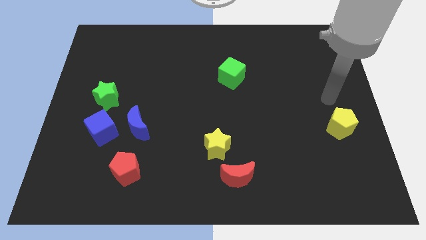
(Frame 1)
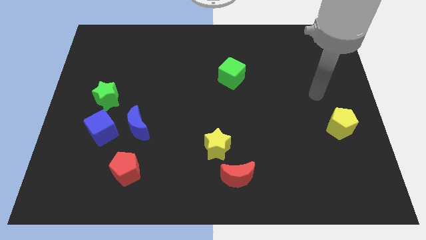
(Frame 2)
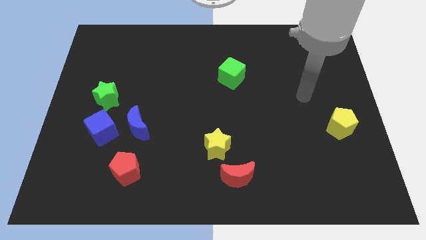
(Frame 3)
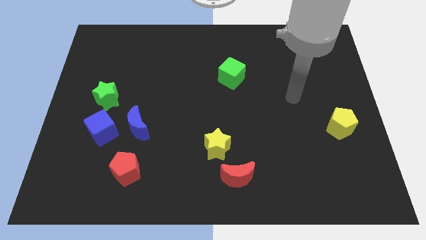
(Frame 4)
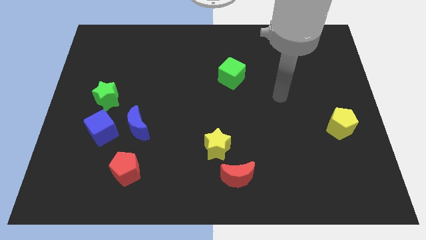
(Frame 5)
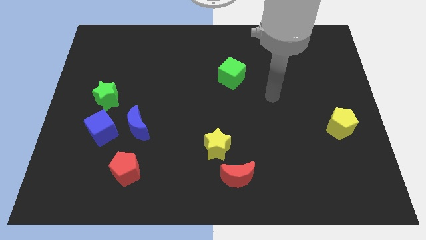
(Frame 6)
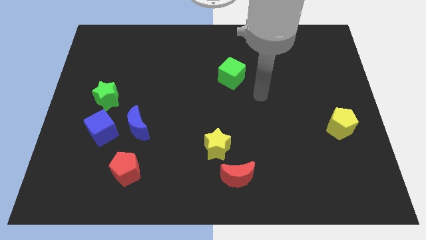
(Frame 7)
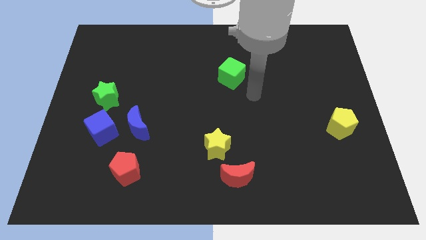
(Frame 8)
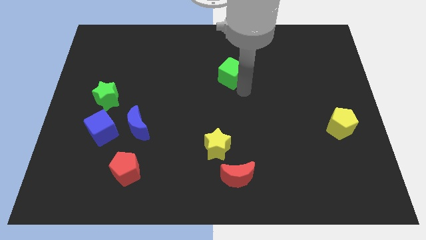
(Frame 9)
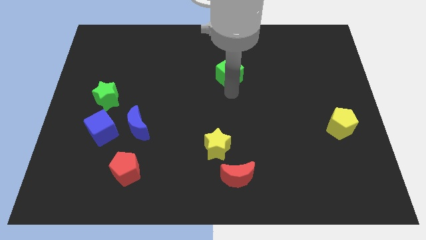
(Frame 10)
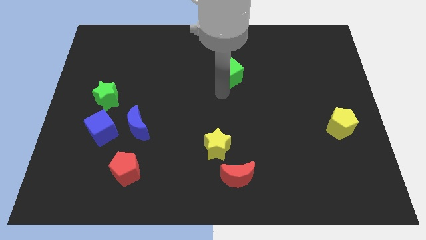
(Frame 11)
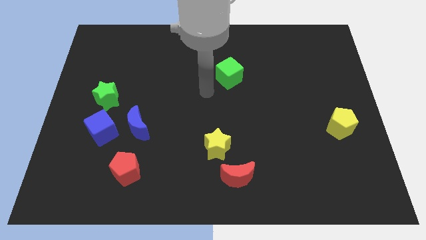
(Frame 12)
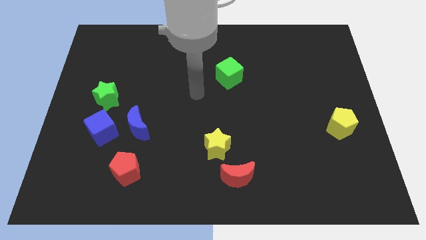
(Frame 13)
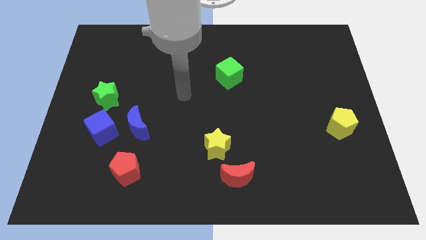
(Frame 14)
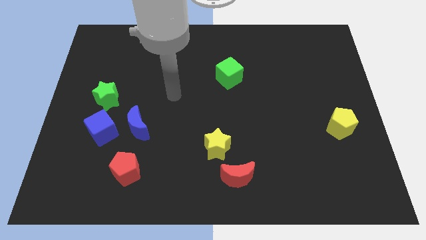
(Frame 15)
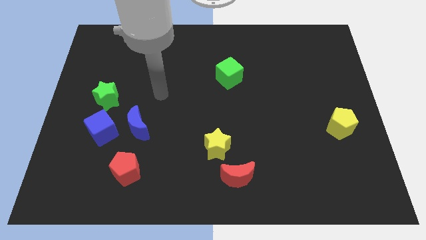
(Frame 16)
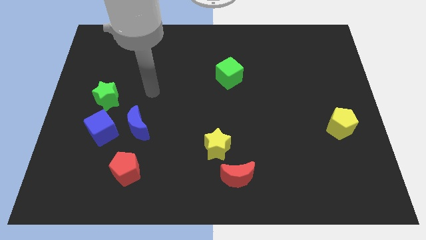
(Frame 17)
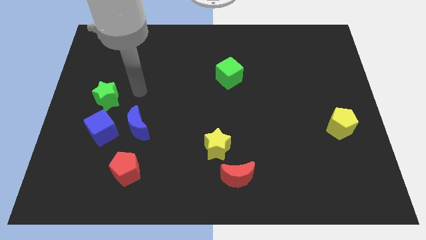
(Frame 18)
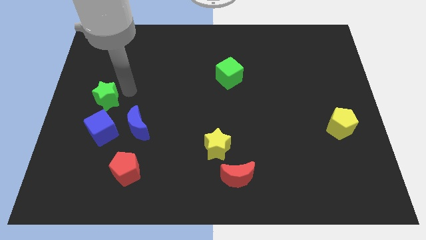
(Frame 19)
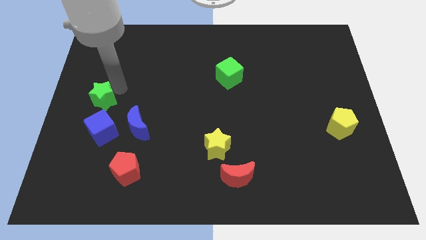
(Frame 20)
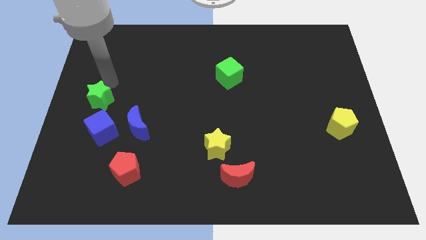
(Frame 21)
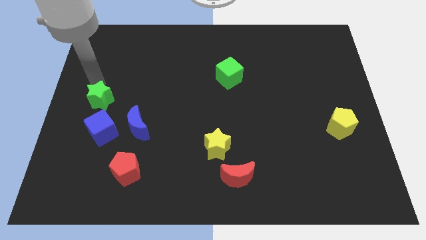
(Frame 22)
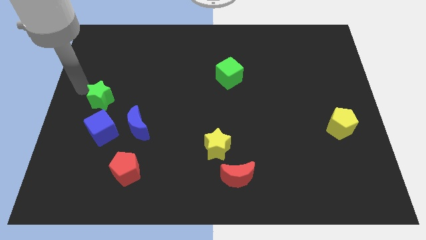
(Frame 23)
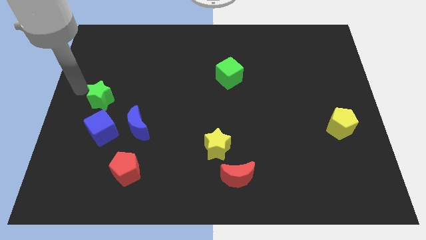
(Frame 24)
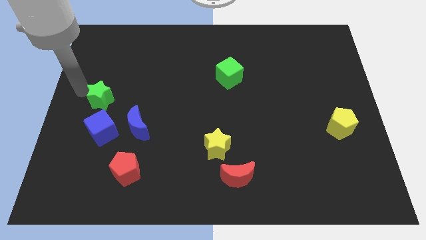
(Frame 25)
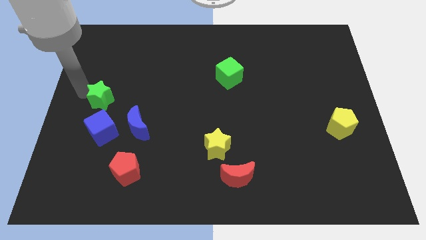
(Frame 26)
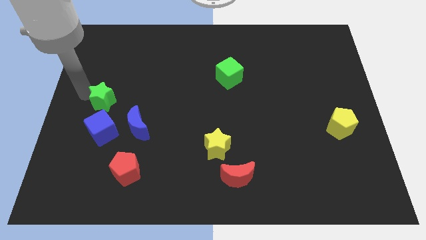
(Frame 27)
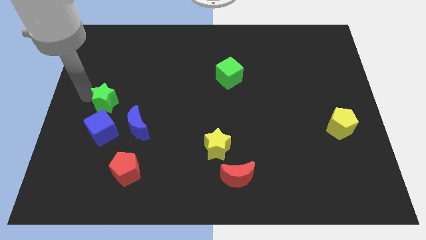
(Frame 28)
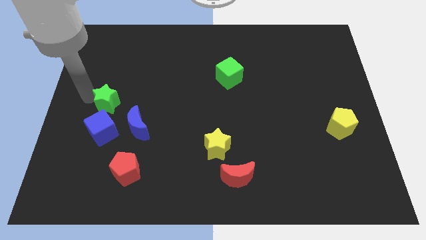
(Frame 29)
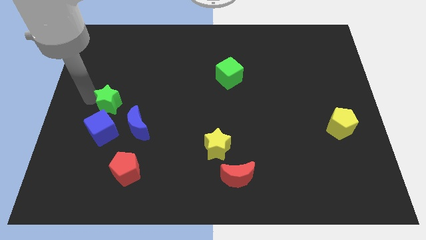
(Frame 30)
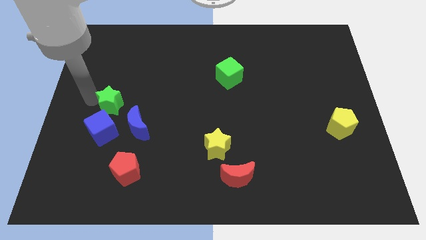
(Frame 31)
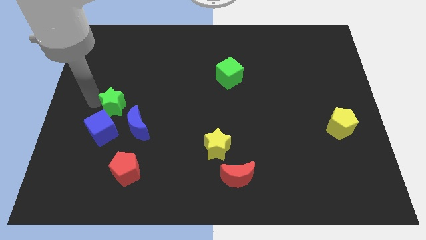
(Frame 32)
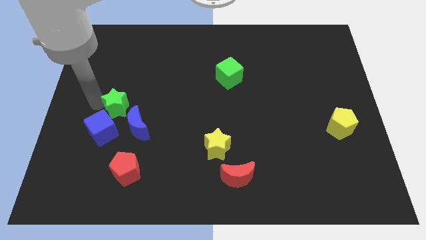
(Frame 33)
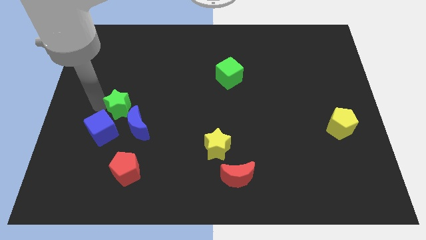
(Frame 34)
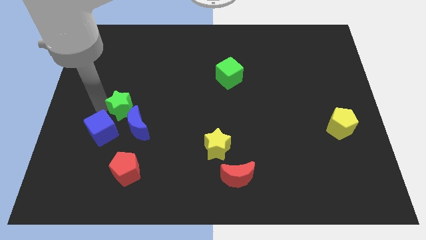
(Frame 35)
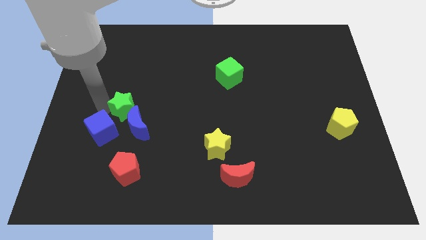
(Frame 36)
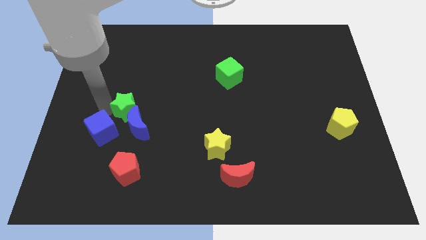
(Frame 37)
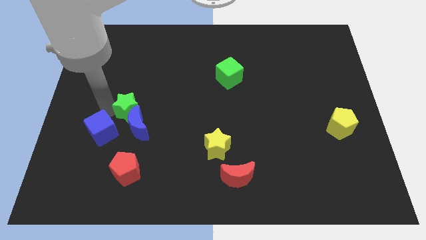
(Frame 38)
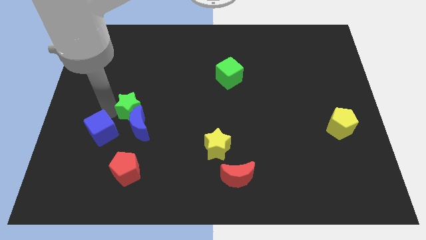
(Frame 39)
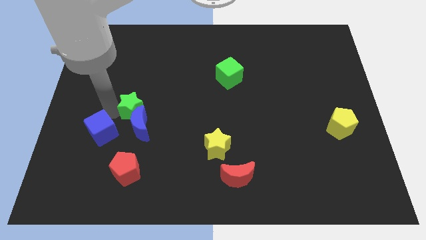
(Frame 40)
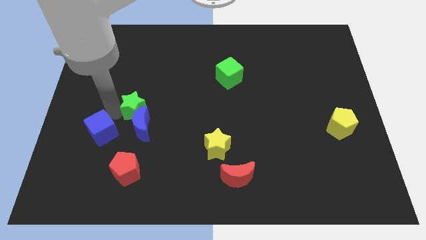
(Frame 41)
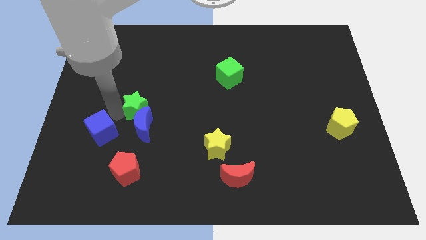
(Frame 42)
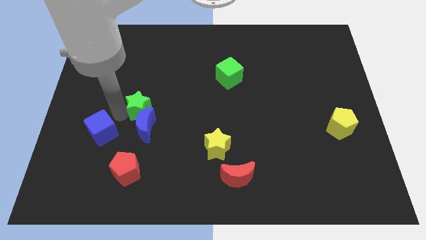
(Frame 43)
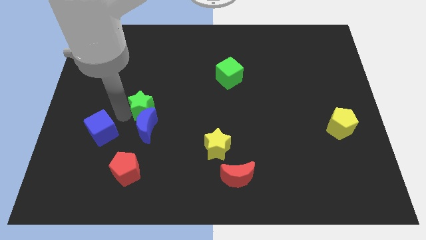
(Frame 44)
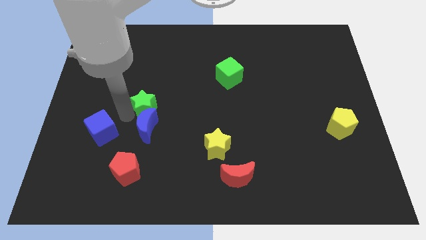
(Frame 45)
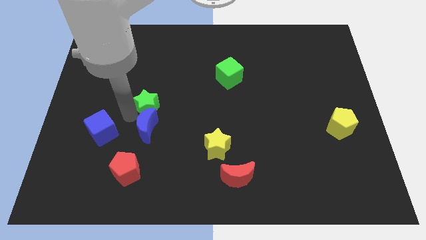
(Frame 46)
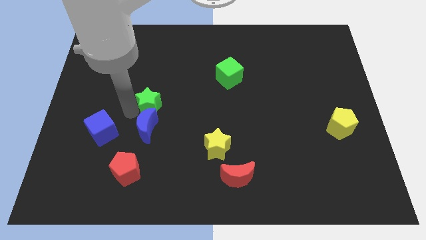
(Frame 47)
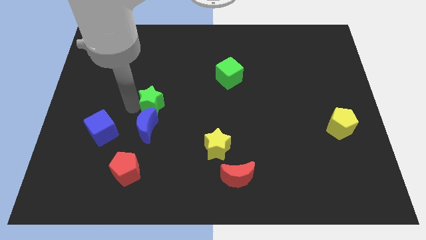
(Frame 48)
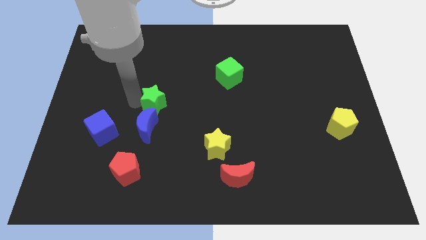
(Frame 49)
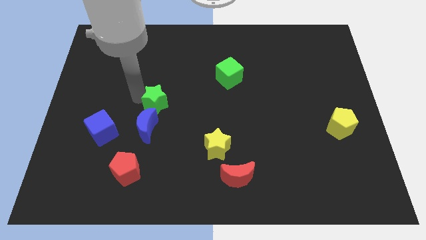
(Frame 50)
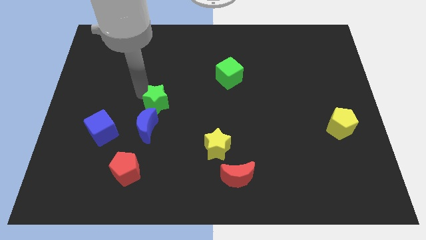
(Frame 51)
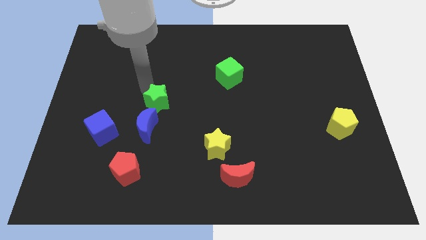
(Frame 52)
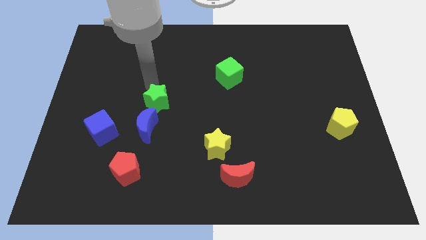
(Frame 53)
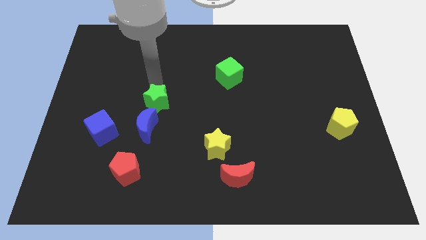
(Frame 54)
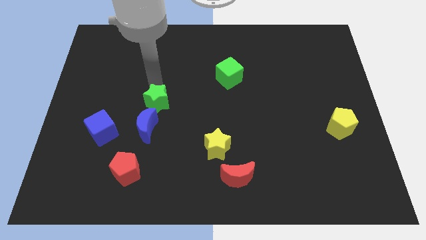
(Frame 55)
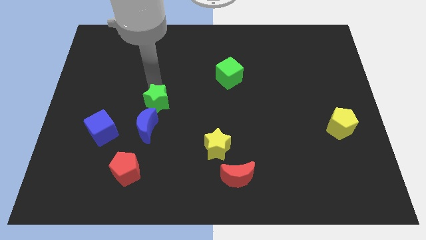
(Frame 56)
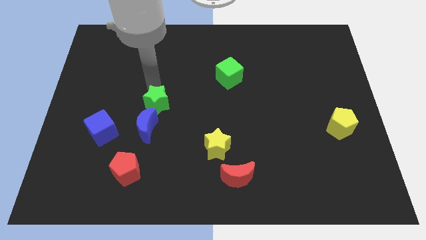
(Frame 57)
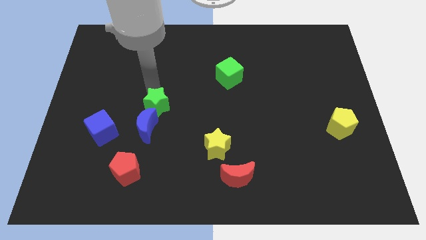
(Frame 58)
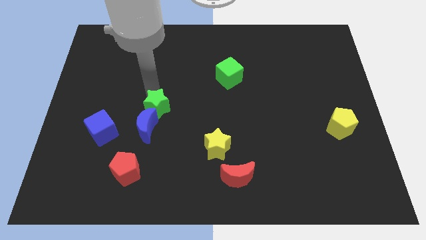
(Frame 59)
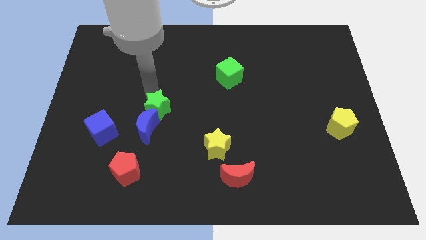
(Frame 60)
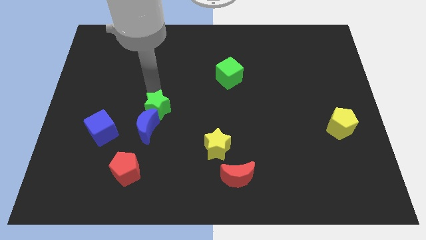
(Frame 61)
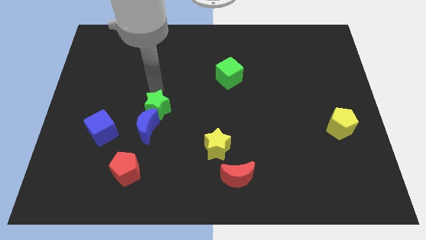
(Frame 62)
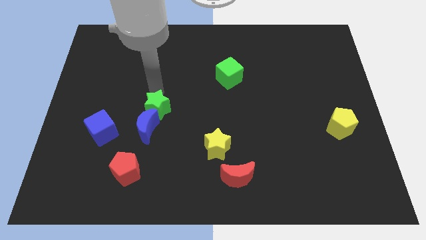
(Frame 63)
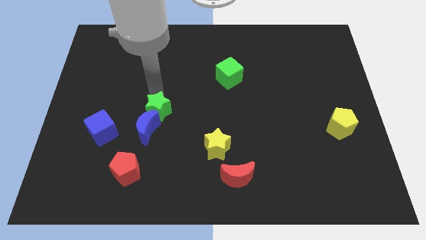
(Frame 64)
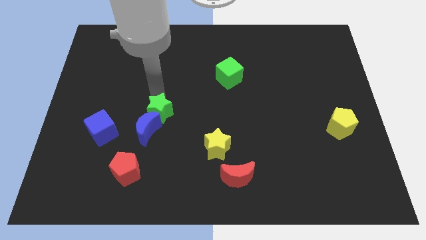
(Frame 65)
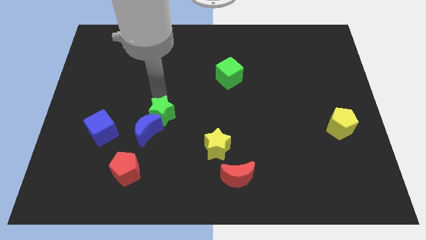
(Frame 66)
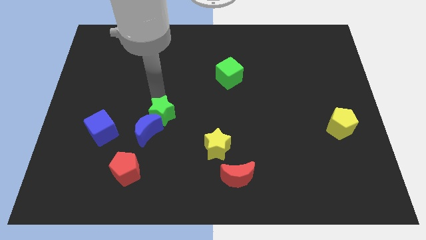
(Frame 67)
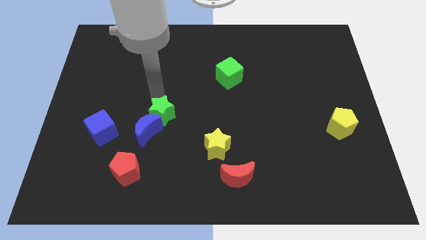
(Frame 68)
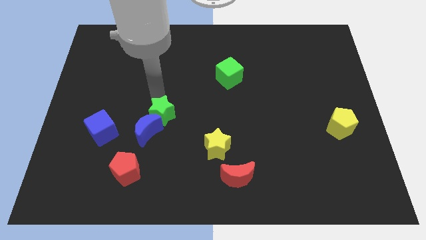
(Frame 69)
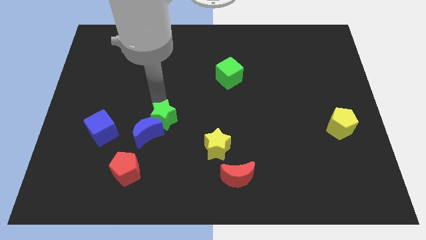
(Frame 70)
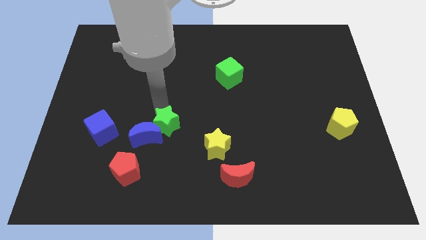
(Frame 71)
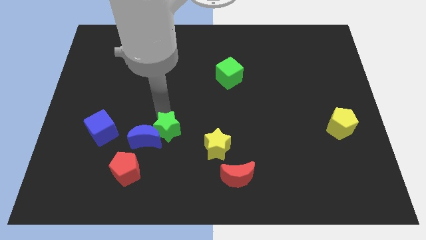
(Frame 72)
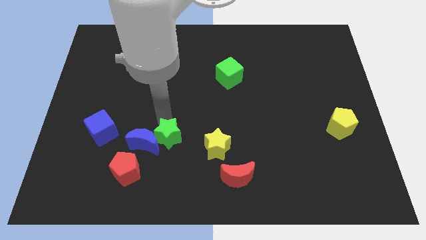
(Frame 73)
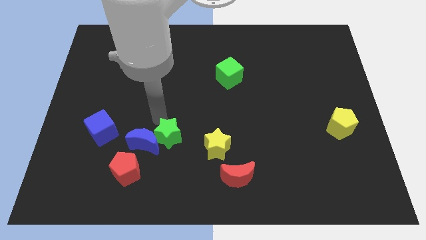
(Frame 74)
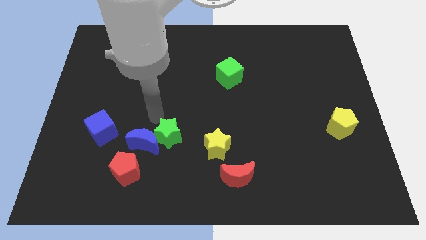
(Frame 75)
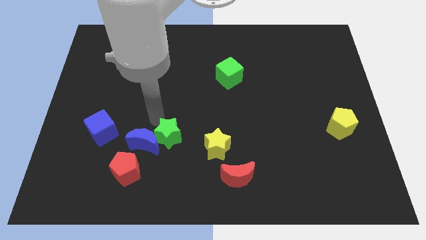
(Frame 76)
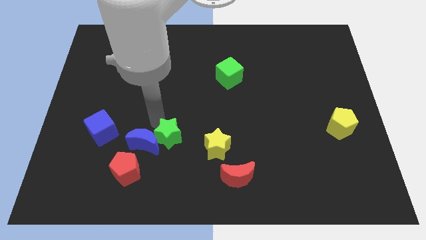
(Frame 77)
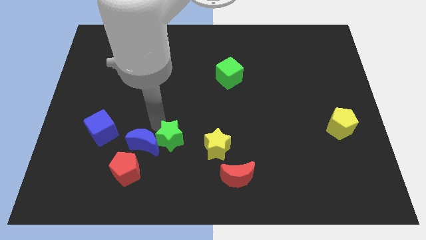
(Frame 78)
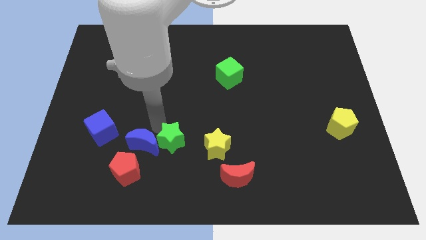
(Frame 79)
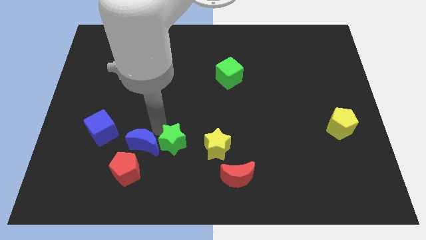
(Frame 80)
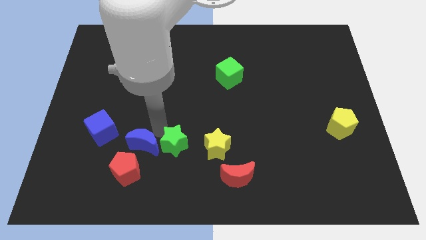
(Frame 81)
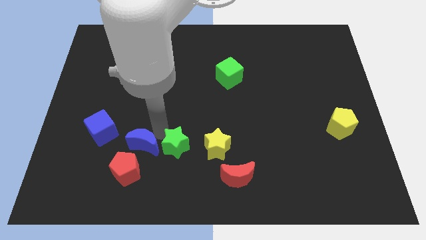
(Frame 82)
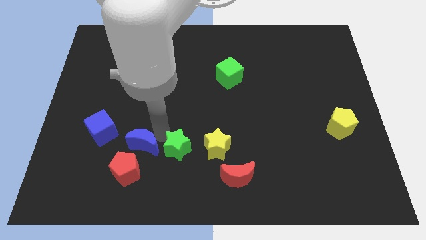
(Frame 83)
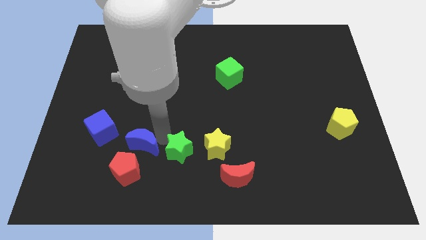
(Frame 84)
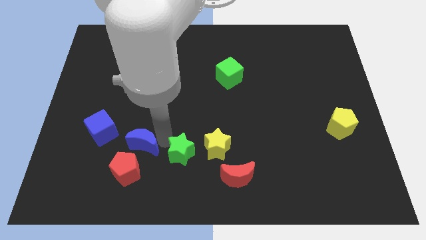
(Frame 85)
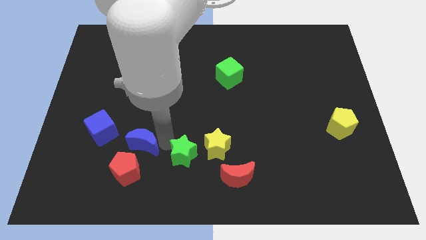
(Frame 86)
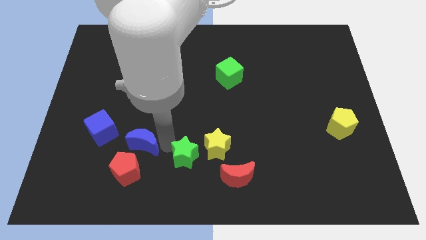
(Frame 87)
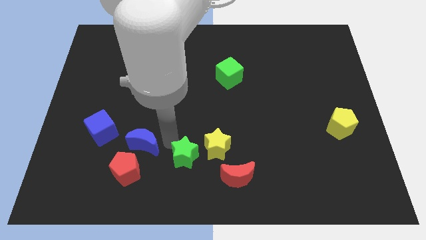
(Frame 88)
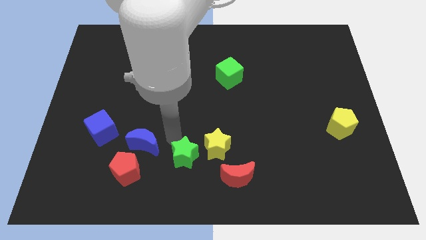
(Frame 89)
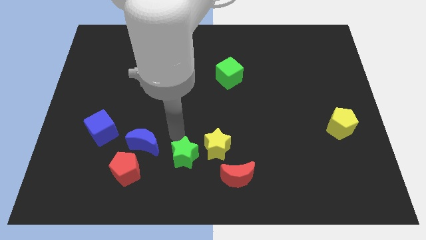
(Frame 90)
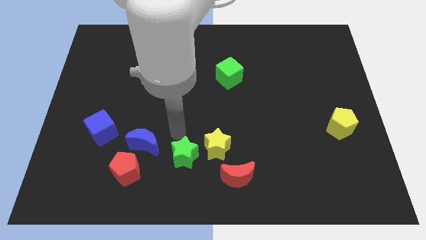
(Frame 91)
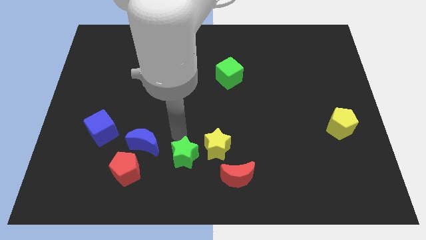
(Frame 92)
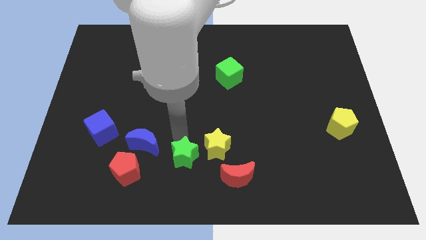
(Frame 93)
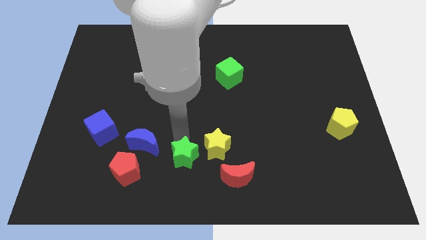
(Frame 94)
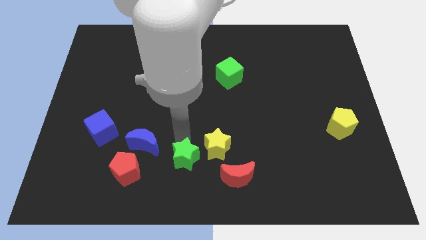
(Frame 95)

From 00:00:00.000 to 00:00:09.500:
slide the green star to the bottom side
